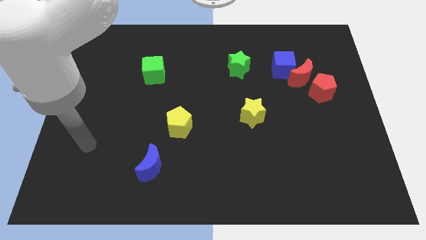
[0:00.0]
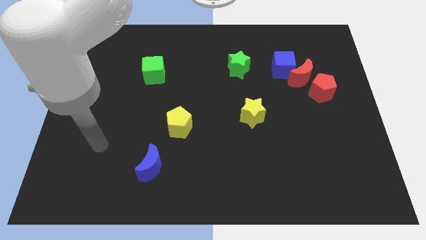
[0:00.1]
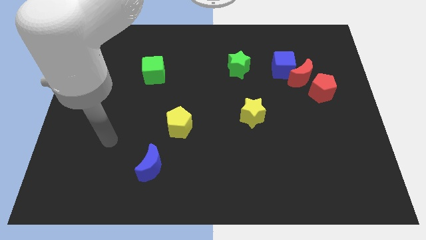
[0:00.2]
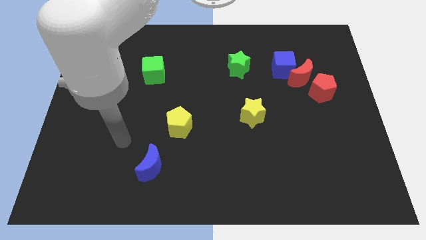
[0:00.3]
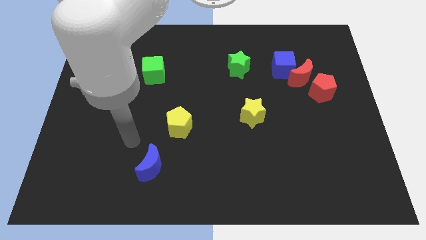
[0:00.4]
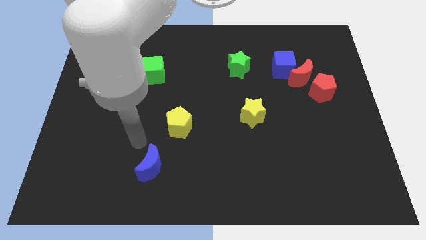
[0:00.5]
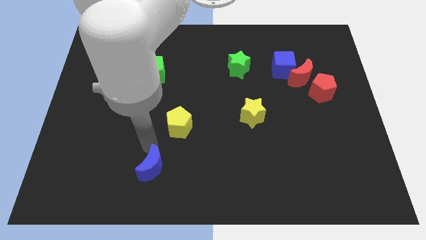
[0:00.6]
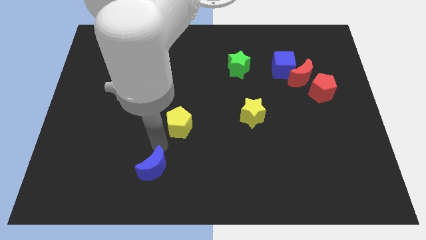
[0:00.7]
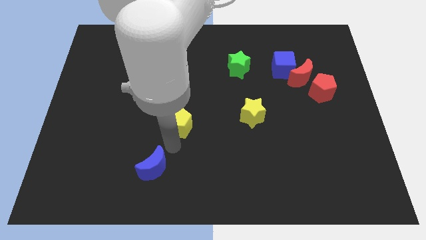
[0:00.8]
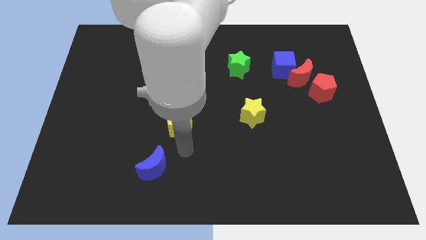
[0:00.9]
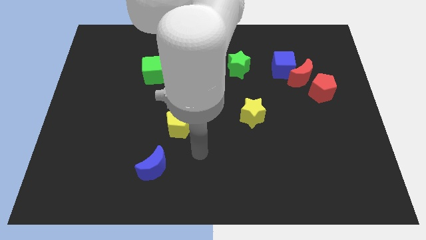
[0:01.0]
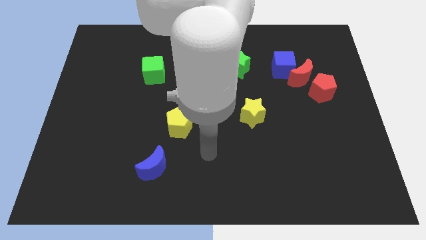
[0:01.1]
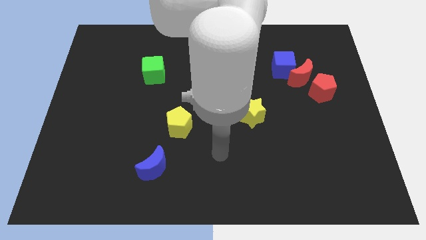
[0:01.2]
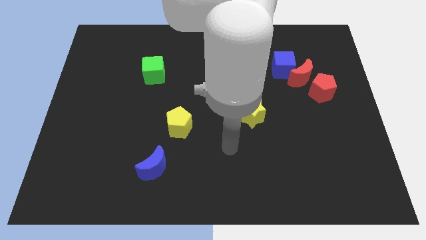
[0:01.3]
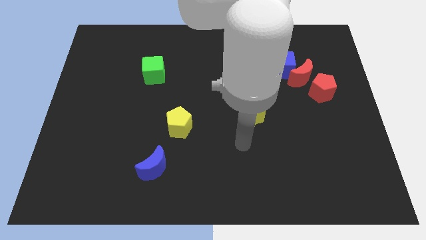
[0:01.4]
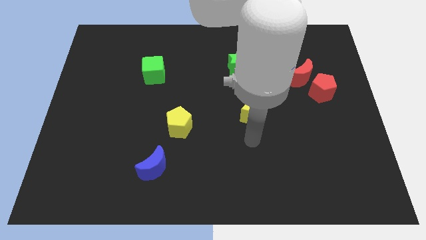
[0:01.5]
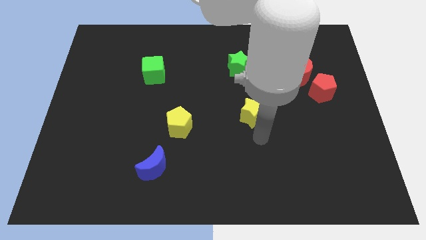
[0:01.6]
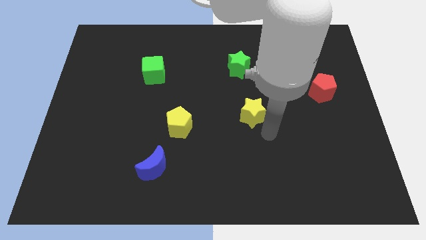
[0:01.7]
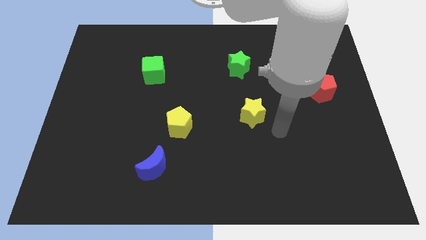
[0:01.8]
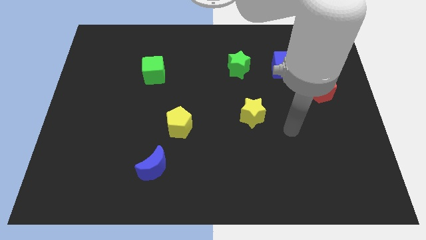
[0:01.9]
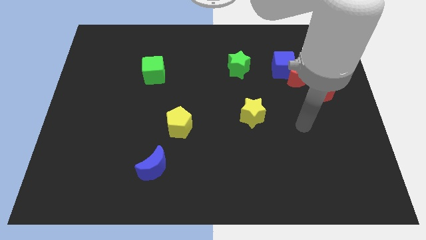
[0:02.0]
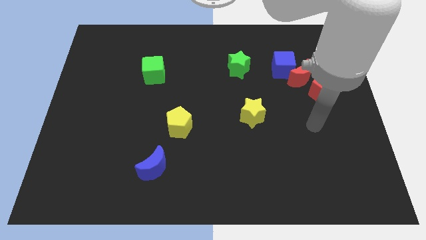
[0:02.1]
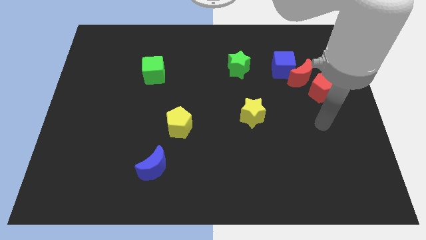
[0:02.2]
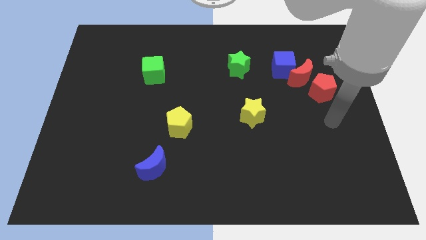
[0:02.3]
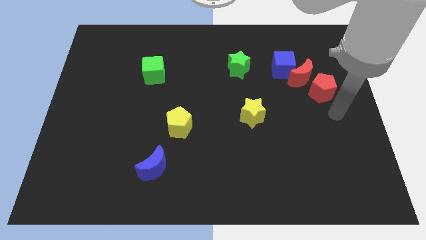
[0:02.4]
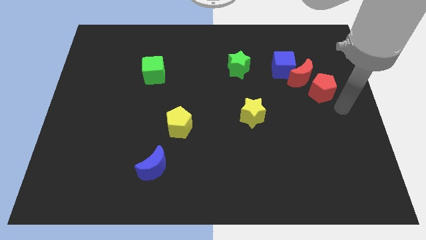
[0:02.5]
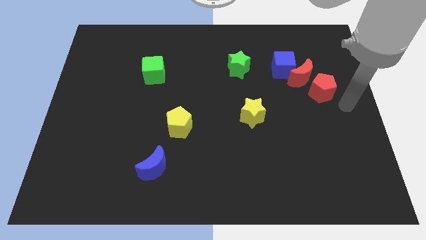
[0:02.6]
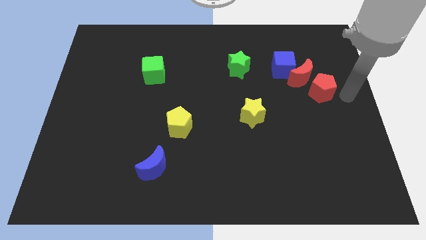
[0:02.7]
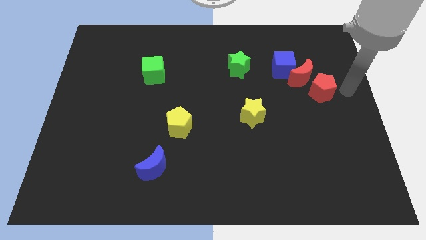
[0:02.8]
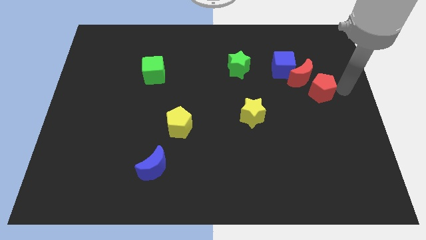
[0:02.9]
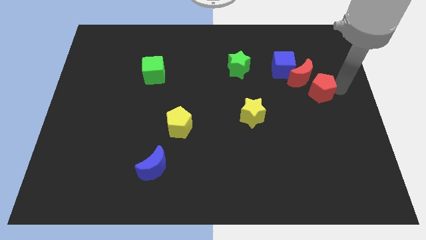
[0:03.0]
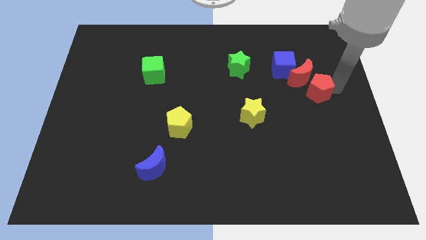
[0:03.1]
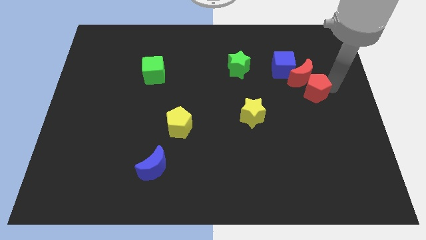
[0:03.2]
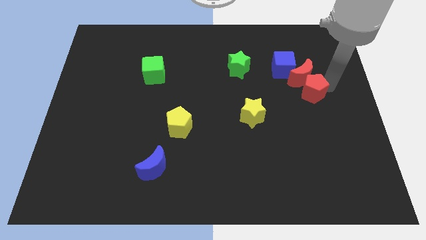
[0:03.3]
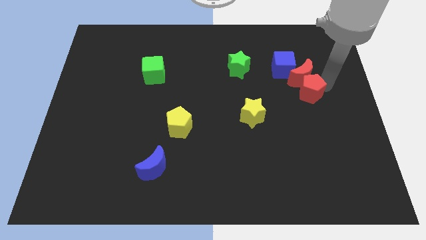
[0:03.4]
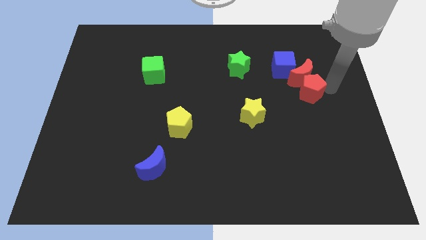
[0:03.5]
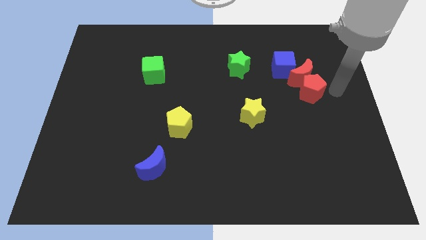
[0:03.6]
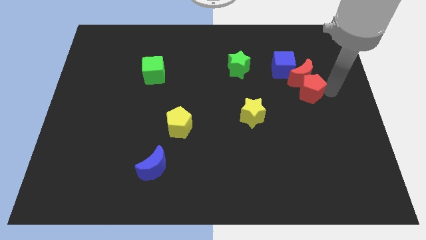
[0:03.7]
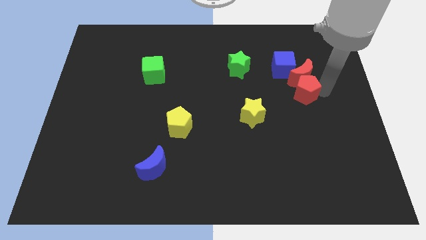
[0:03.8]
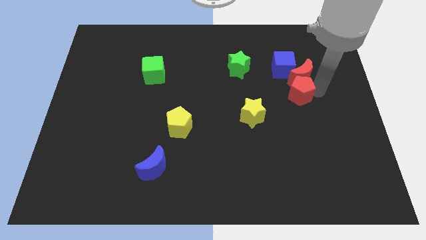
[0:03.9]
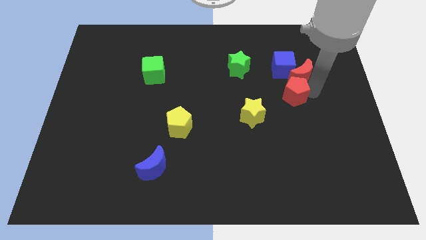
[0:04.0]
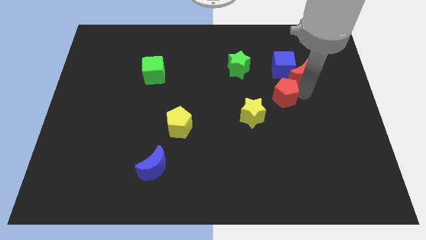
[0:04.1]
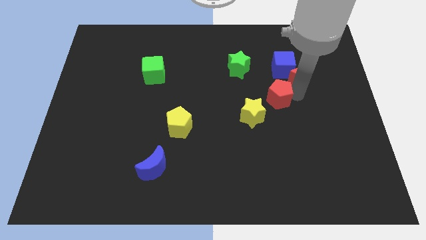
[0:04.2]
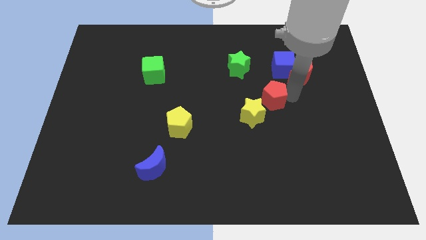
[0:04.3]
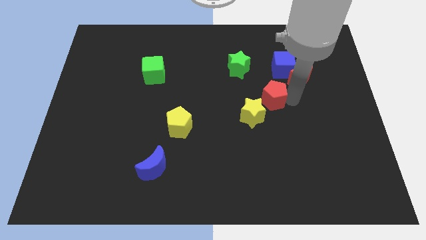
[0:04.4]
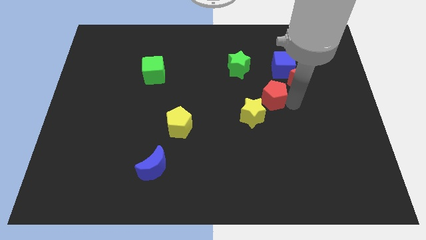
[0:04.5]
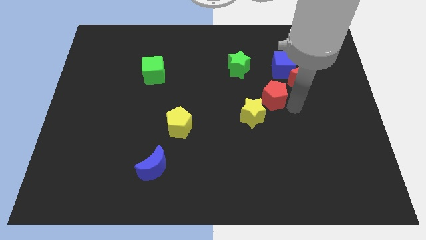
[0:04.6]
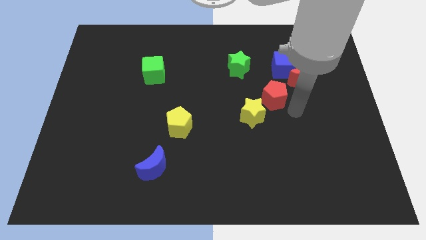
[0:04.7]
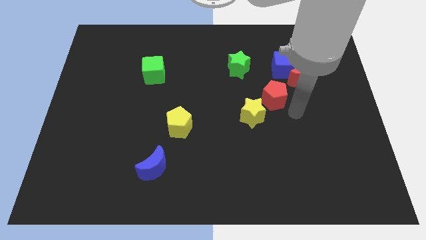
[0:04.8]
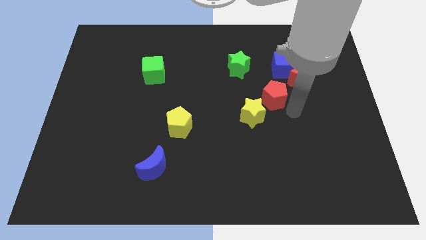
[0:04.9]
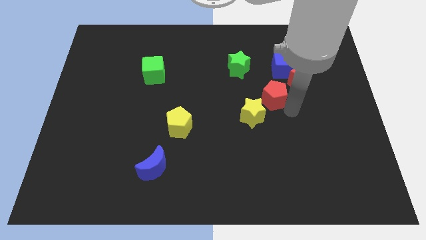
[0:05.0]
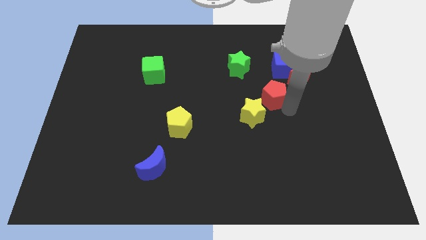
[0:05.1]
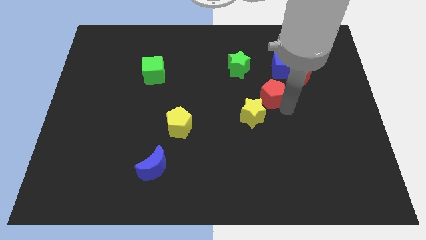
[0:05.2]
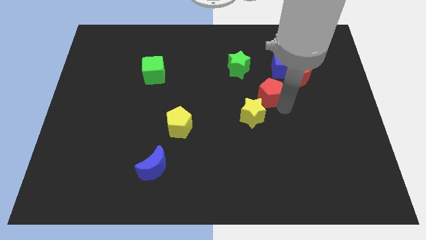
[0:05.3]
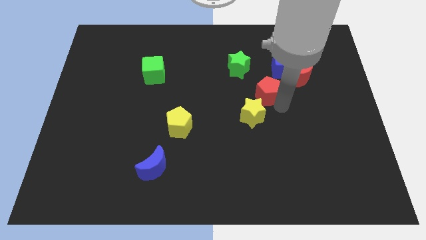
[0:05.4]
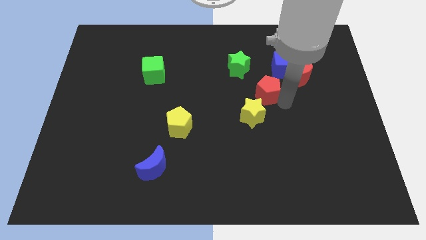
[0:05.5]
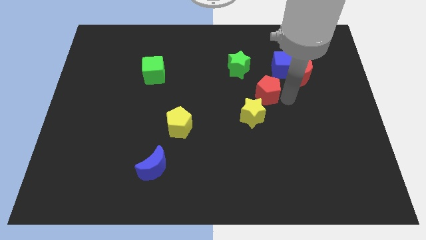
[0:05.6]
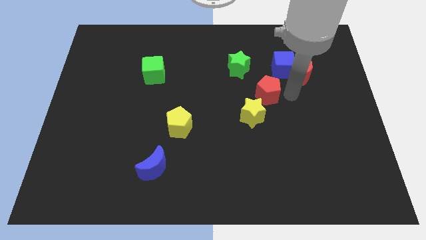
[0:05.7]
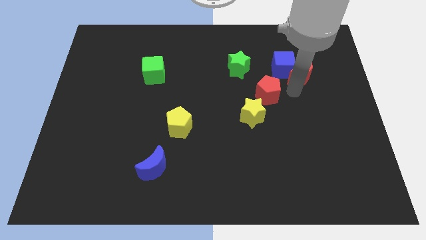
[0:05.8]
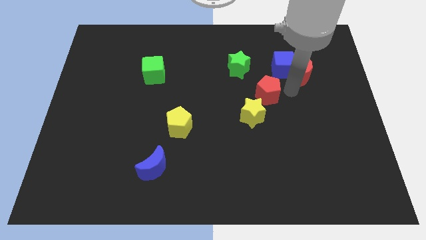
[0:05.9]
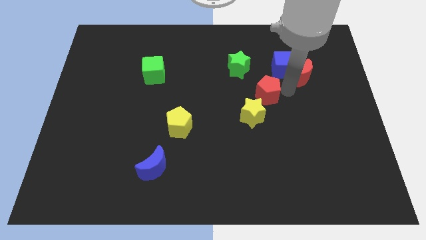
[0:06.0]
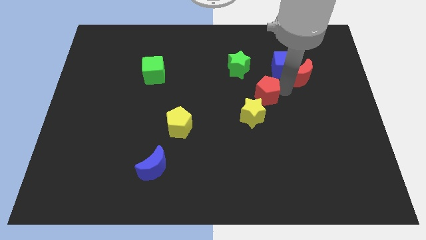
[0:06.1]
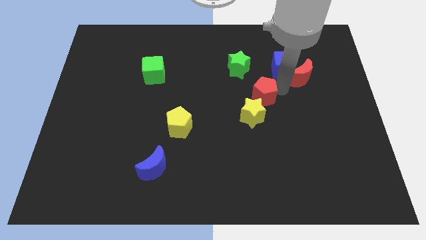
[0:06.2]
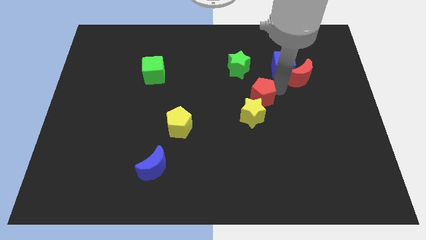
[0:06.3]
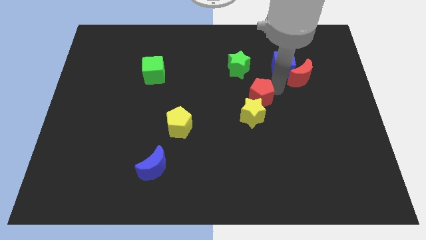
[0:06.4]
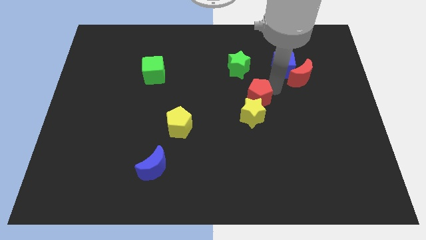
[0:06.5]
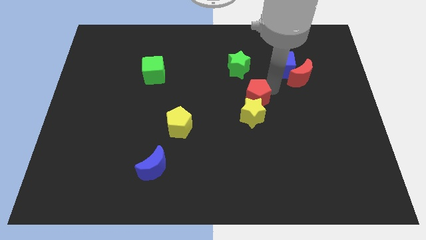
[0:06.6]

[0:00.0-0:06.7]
move the red pentagon diagonally up and to the left of the yellow star

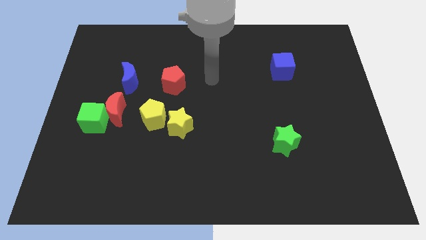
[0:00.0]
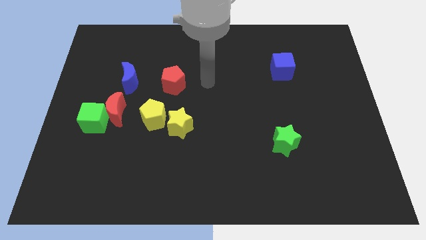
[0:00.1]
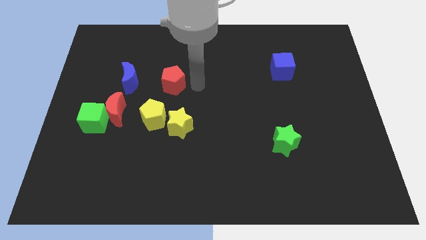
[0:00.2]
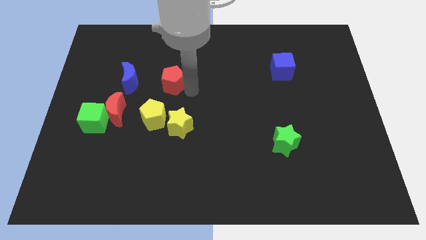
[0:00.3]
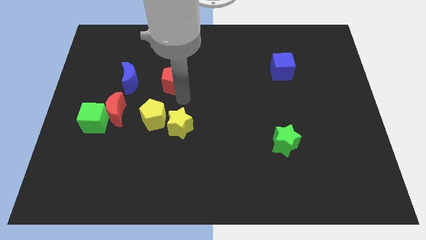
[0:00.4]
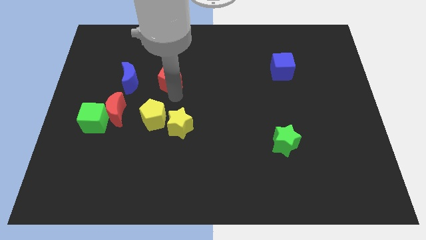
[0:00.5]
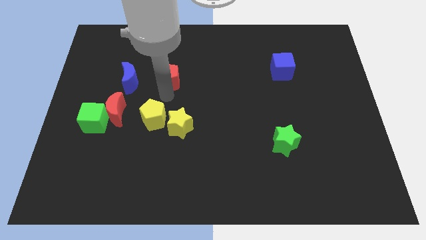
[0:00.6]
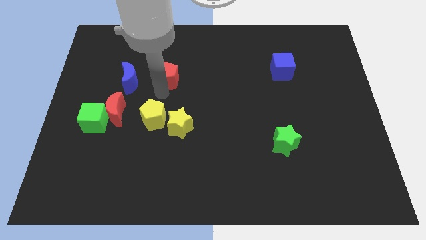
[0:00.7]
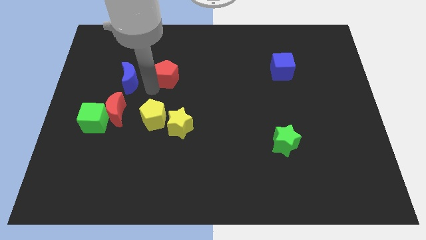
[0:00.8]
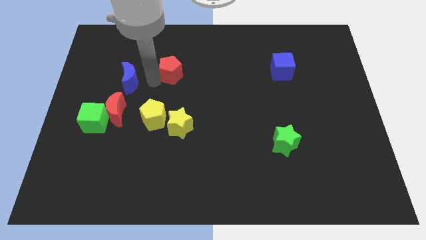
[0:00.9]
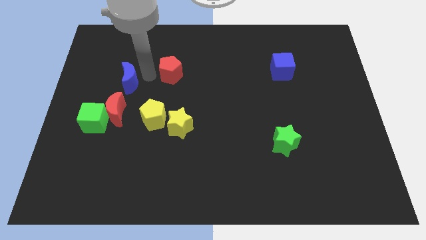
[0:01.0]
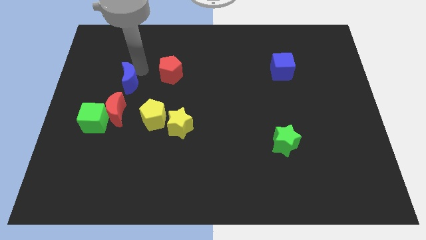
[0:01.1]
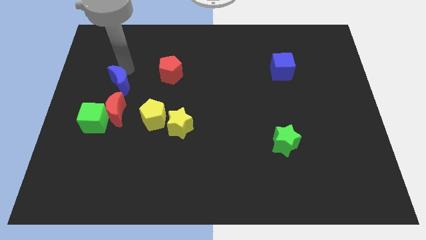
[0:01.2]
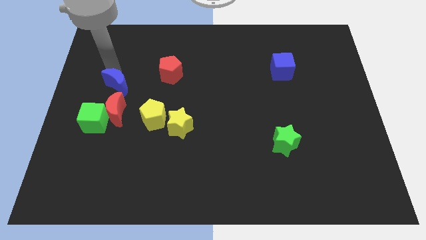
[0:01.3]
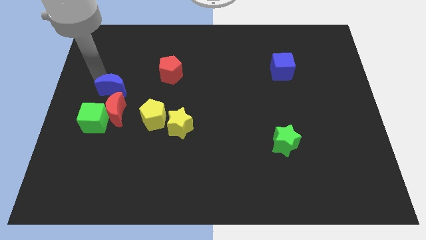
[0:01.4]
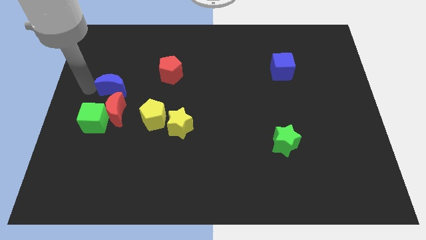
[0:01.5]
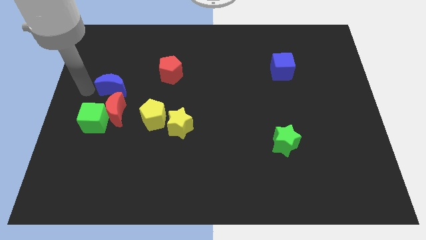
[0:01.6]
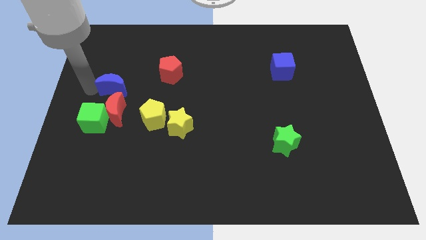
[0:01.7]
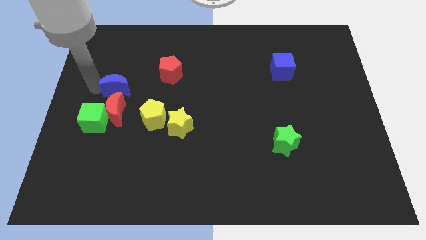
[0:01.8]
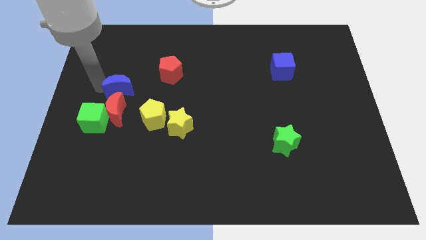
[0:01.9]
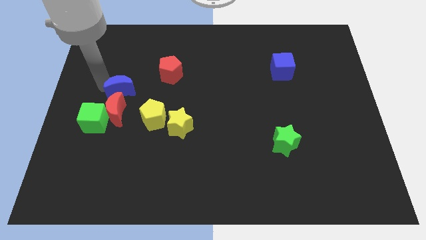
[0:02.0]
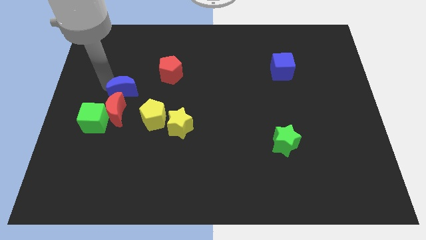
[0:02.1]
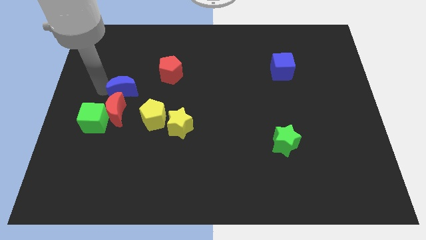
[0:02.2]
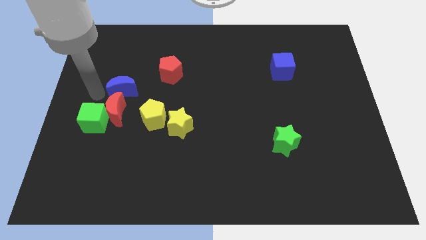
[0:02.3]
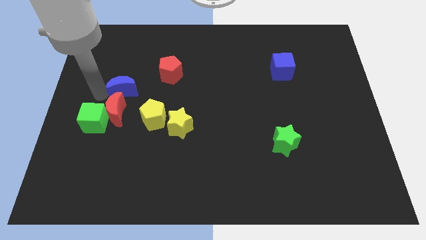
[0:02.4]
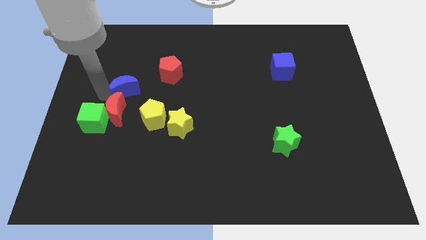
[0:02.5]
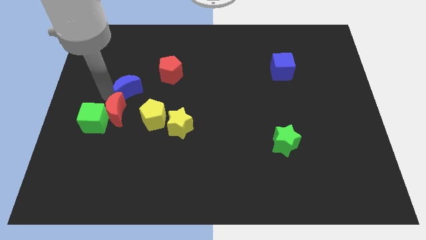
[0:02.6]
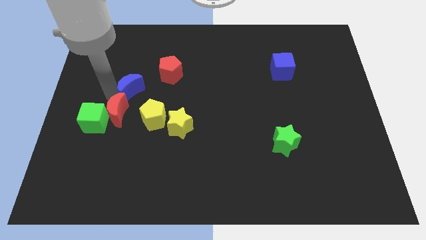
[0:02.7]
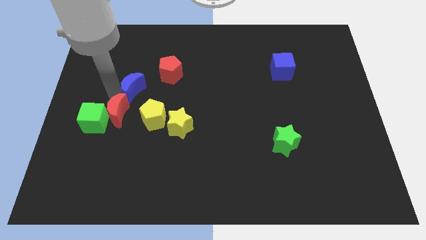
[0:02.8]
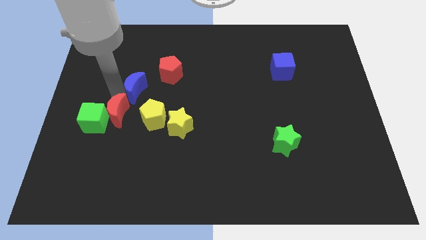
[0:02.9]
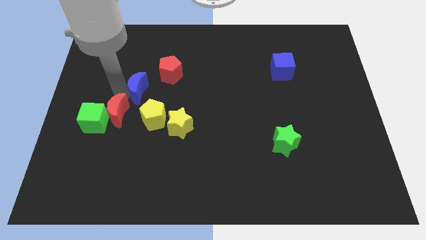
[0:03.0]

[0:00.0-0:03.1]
put the blue moon to the top side of the yellow pentagon
